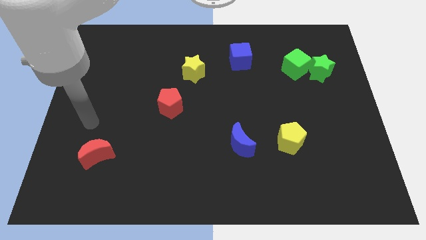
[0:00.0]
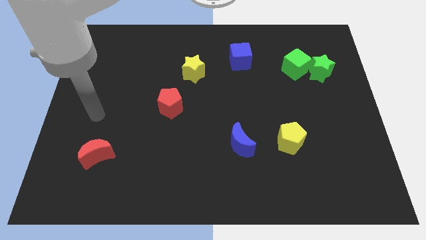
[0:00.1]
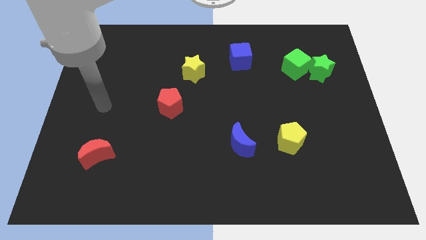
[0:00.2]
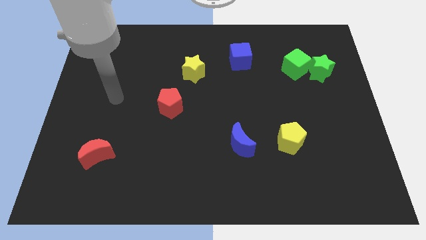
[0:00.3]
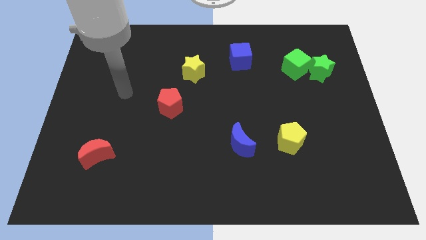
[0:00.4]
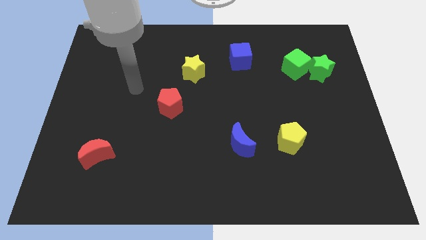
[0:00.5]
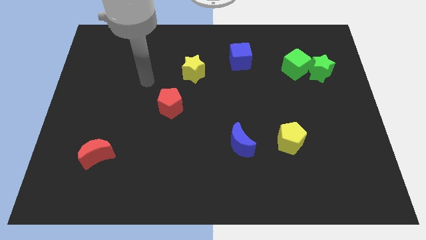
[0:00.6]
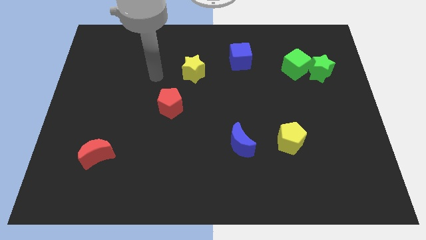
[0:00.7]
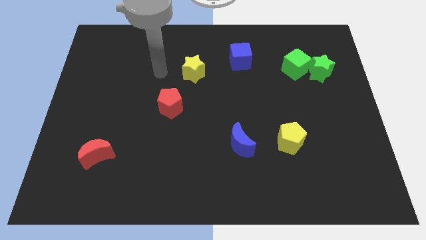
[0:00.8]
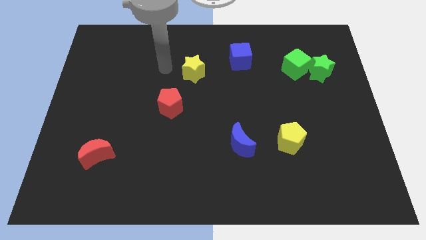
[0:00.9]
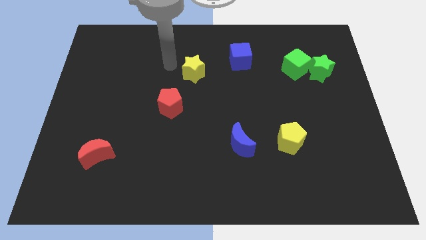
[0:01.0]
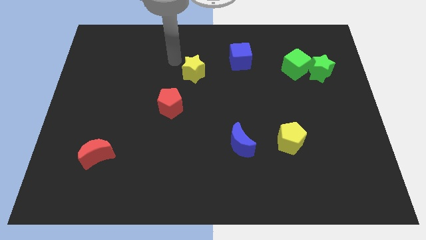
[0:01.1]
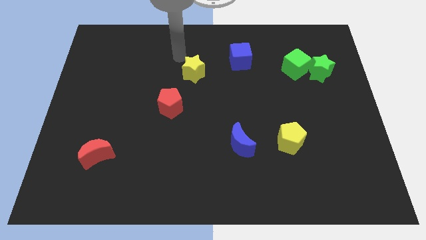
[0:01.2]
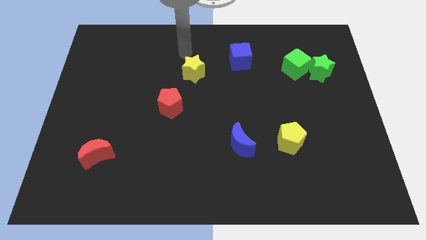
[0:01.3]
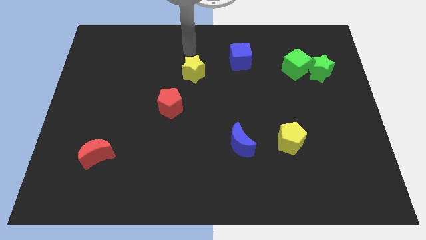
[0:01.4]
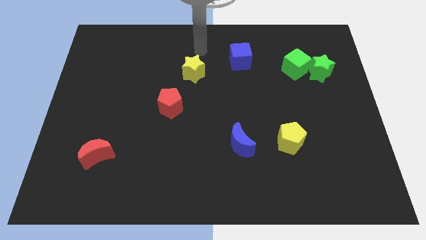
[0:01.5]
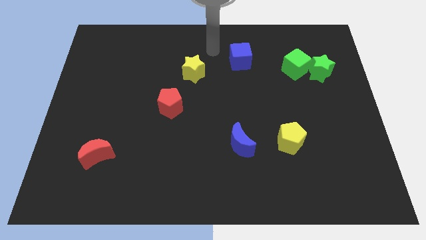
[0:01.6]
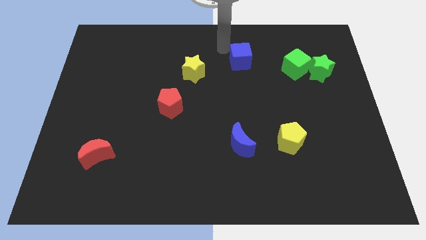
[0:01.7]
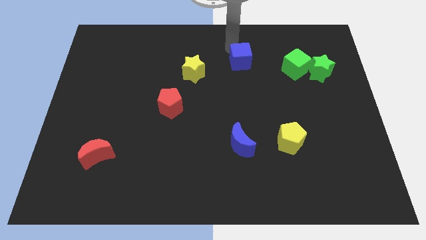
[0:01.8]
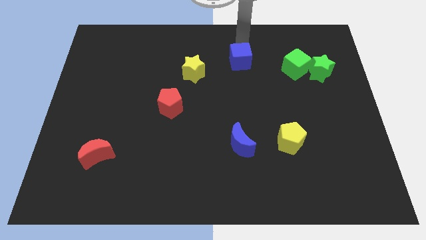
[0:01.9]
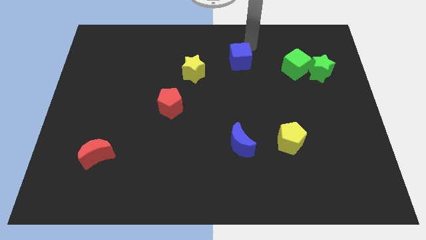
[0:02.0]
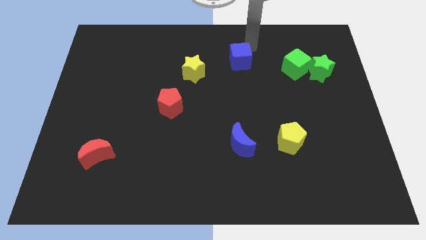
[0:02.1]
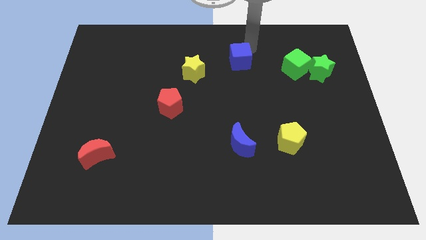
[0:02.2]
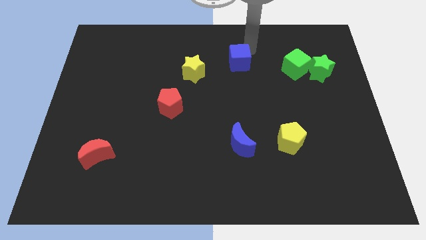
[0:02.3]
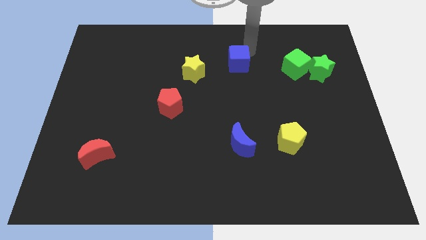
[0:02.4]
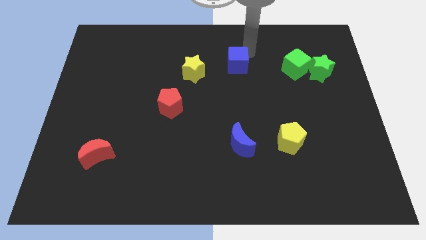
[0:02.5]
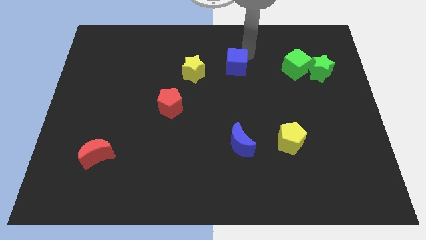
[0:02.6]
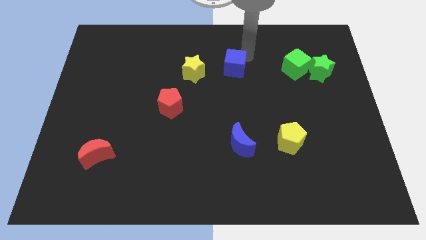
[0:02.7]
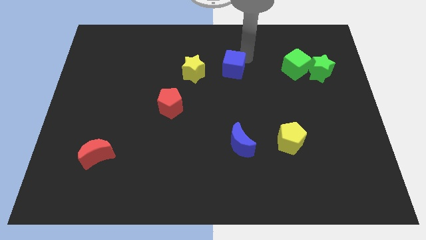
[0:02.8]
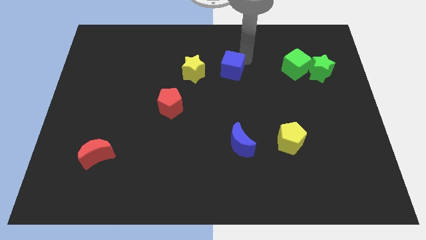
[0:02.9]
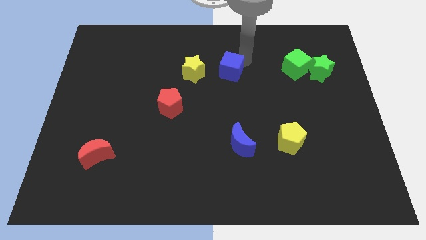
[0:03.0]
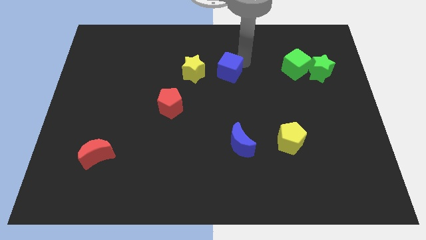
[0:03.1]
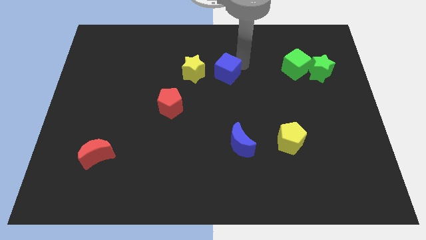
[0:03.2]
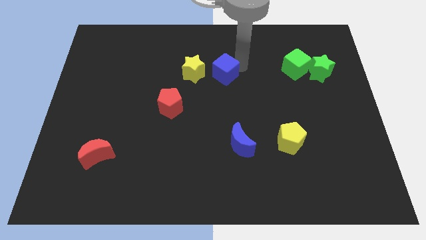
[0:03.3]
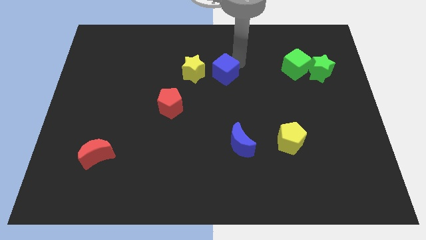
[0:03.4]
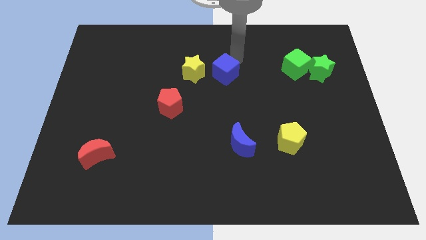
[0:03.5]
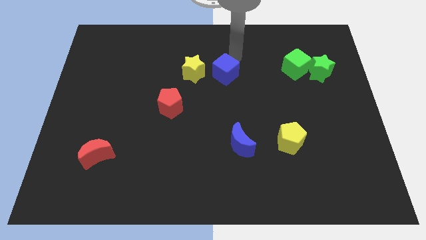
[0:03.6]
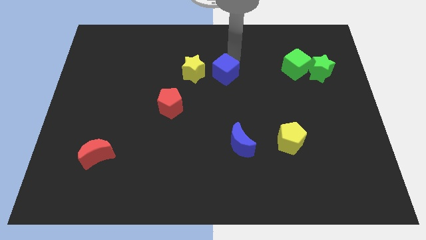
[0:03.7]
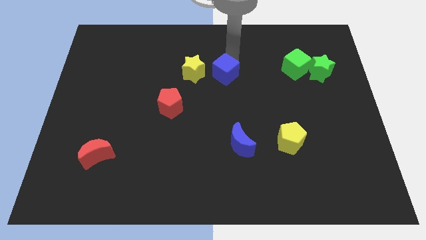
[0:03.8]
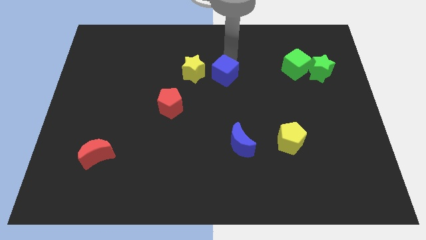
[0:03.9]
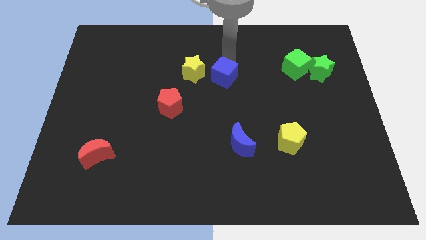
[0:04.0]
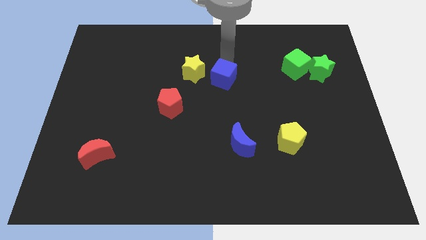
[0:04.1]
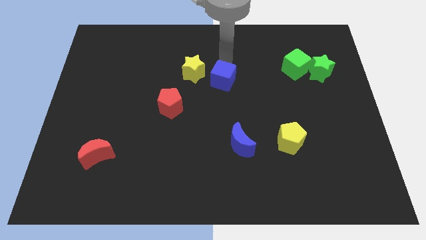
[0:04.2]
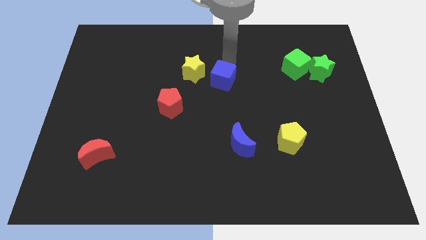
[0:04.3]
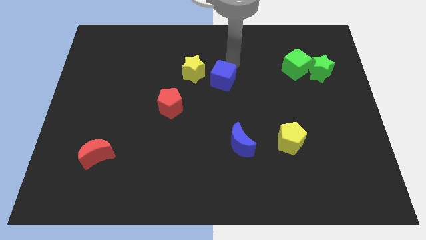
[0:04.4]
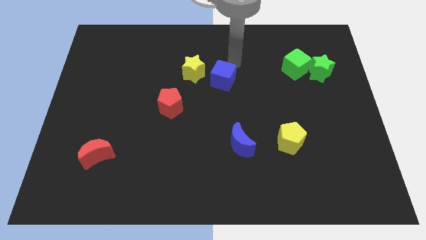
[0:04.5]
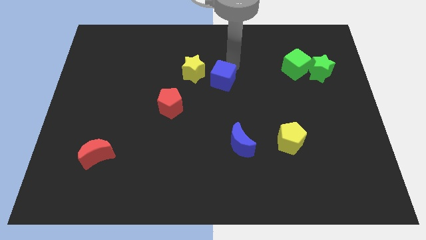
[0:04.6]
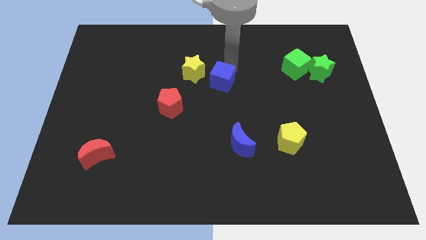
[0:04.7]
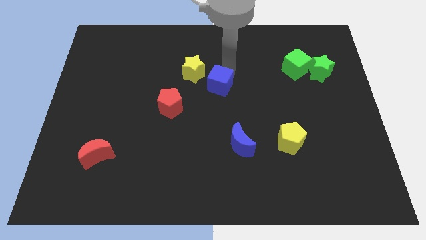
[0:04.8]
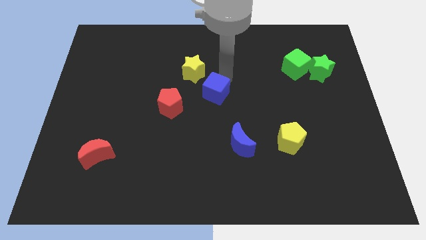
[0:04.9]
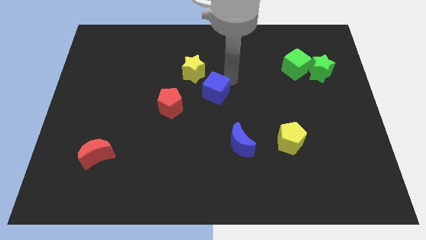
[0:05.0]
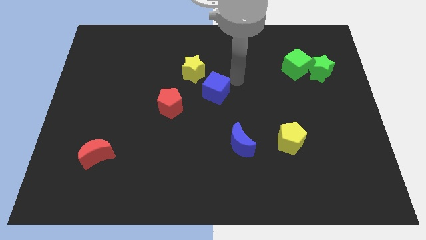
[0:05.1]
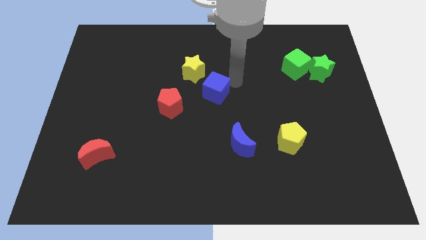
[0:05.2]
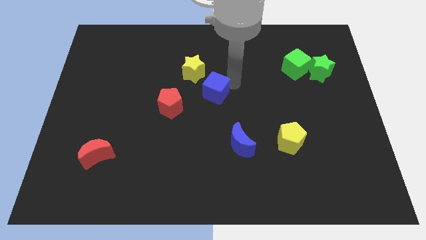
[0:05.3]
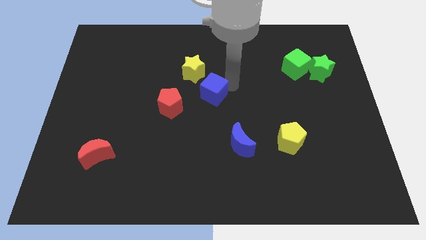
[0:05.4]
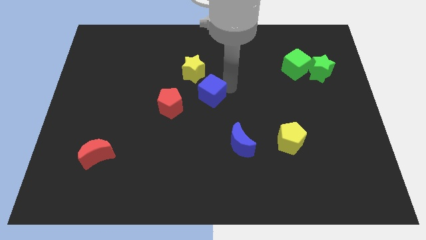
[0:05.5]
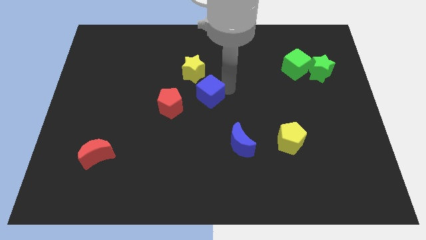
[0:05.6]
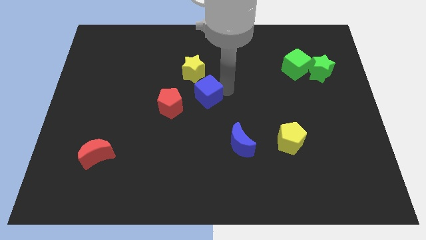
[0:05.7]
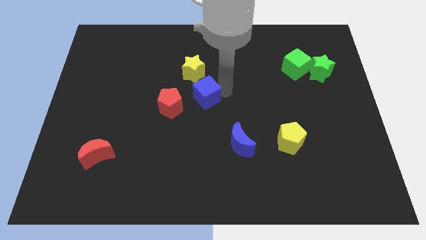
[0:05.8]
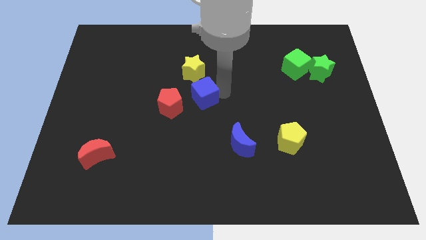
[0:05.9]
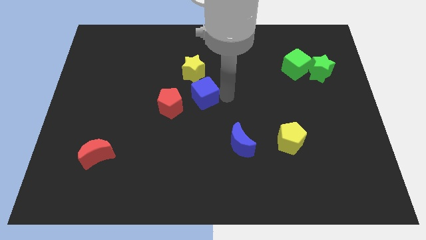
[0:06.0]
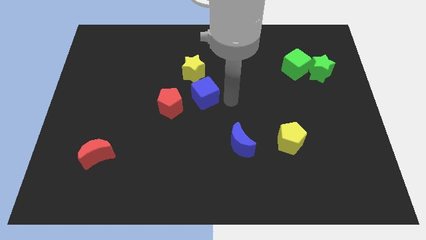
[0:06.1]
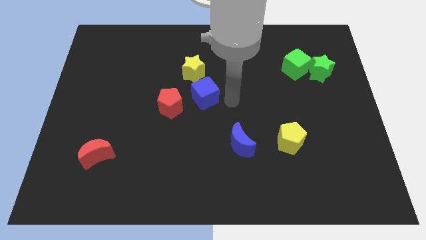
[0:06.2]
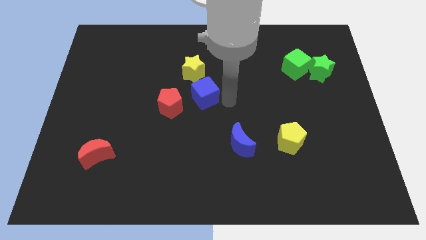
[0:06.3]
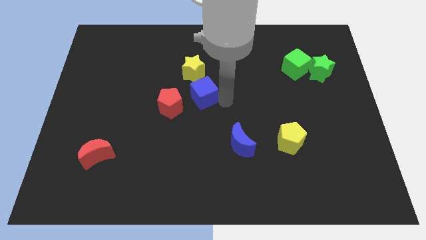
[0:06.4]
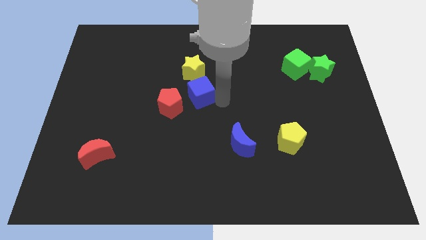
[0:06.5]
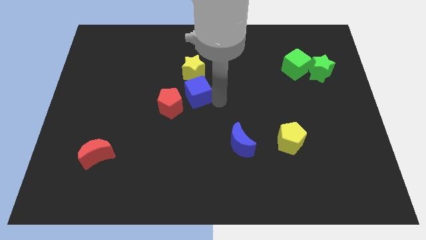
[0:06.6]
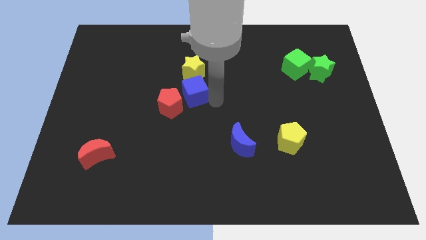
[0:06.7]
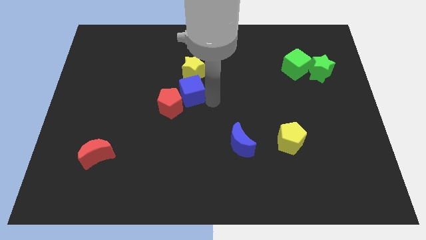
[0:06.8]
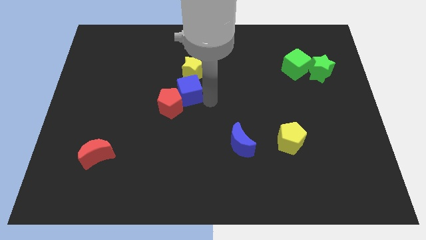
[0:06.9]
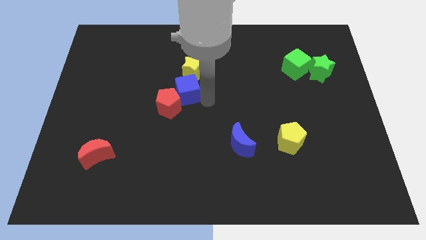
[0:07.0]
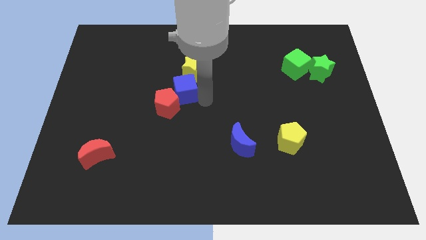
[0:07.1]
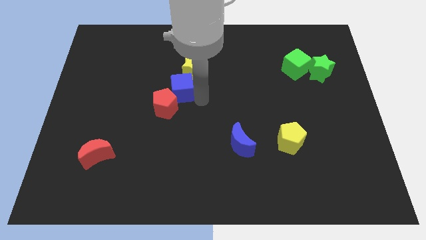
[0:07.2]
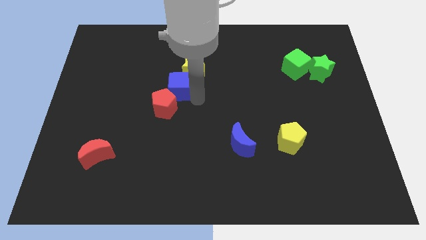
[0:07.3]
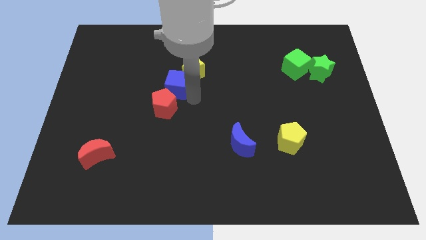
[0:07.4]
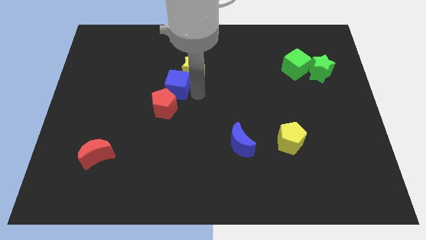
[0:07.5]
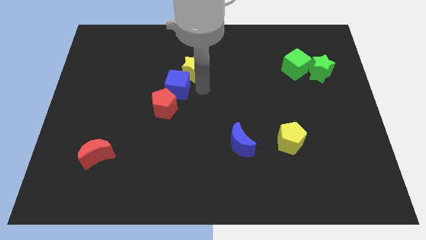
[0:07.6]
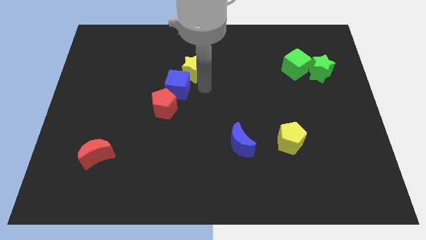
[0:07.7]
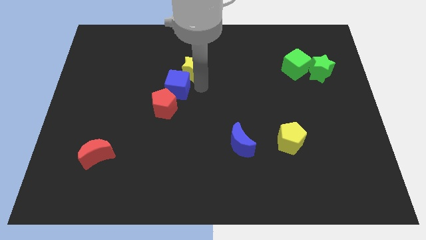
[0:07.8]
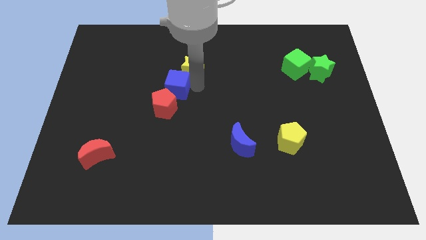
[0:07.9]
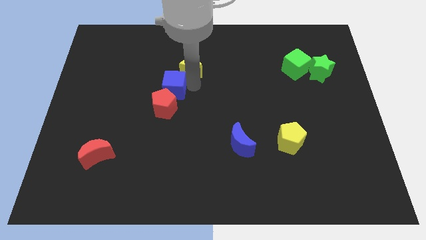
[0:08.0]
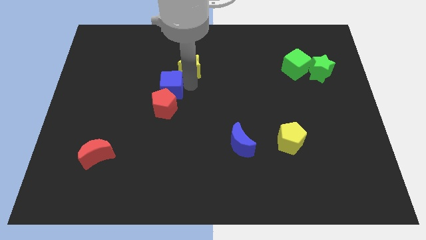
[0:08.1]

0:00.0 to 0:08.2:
push the blue cube to the top left side of the red pentagon
